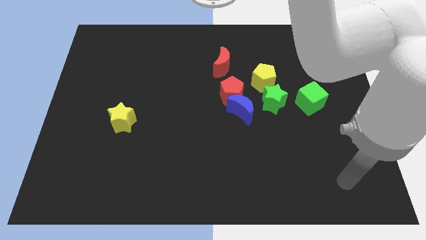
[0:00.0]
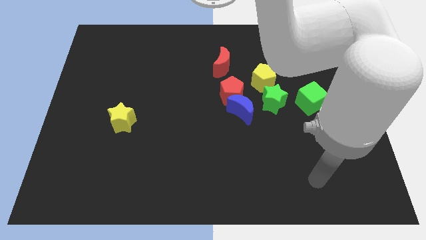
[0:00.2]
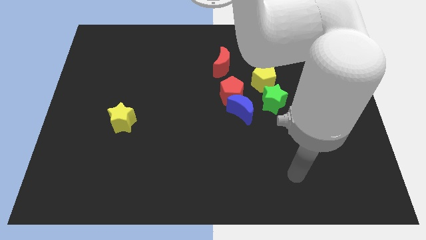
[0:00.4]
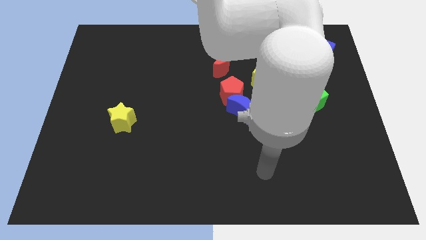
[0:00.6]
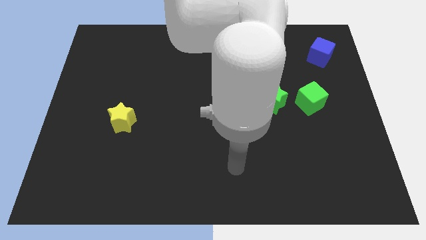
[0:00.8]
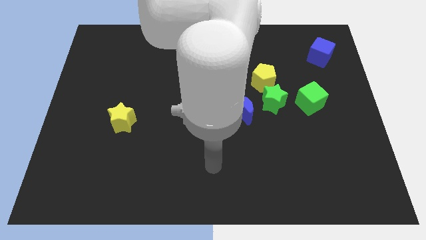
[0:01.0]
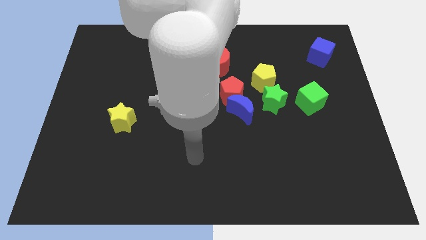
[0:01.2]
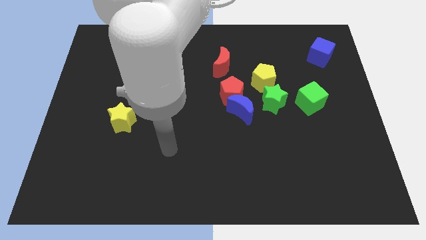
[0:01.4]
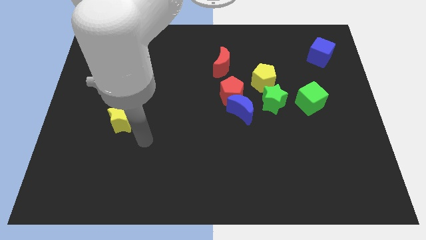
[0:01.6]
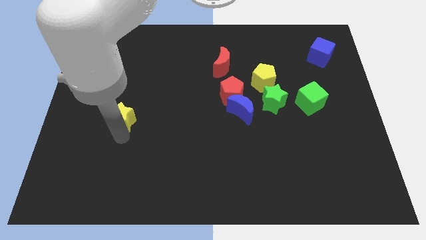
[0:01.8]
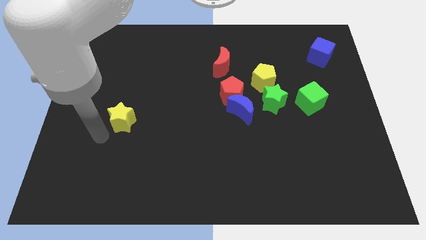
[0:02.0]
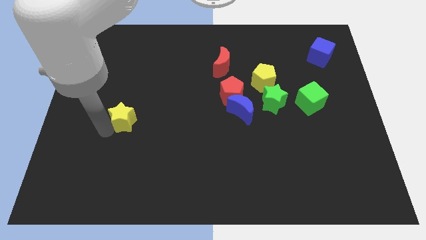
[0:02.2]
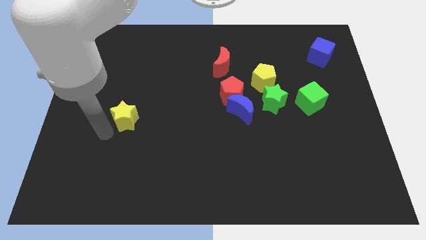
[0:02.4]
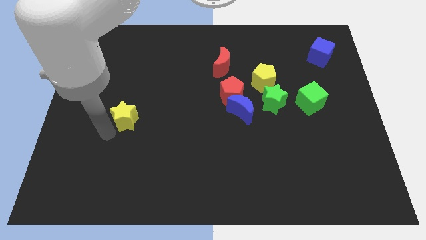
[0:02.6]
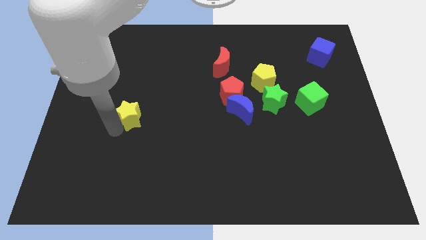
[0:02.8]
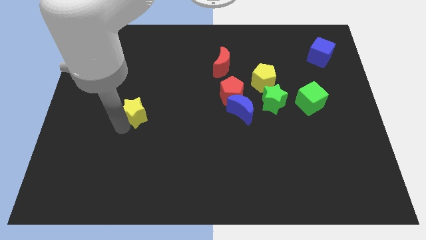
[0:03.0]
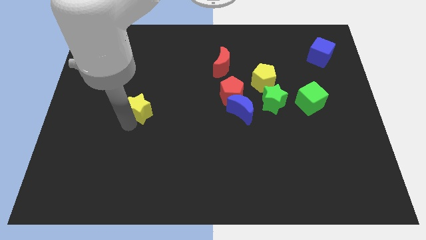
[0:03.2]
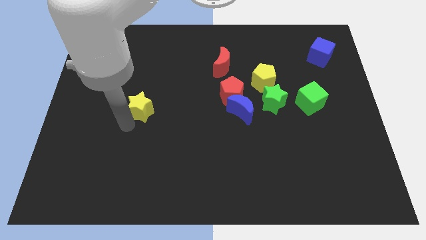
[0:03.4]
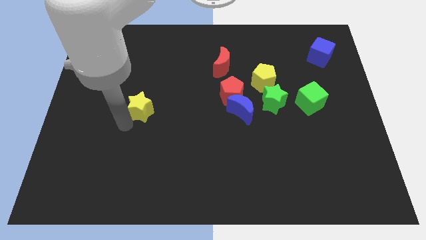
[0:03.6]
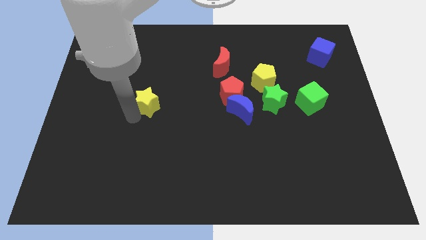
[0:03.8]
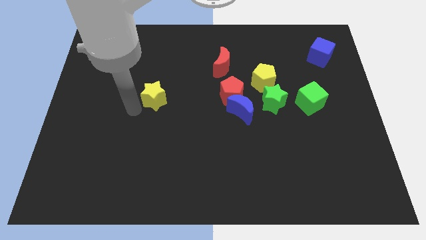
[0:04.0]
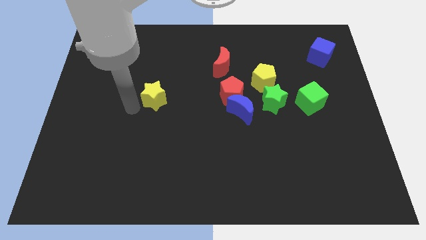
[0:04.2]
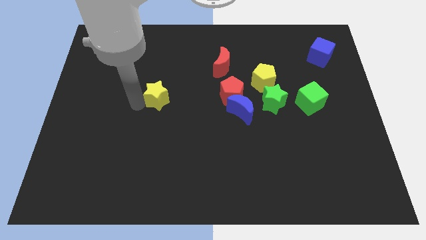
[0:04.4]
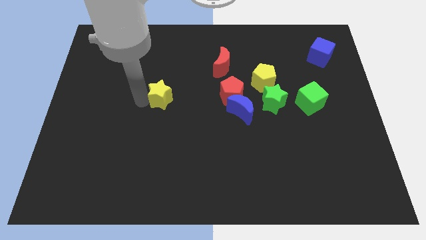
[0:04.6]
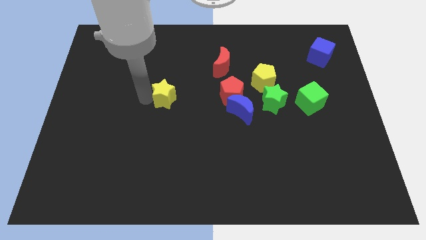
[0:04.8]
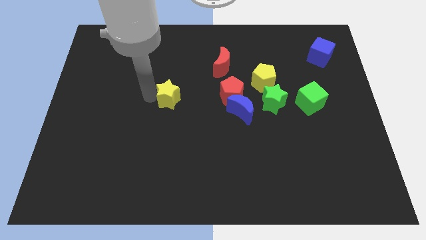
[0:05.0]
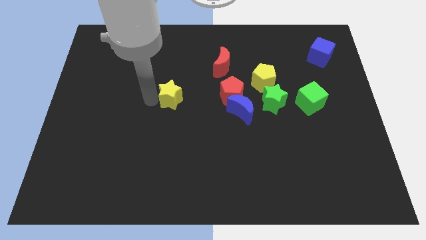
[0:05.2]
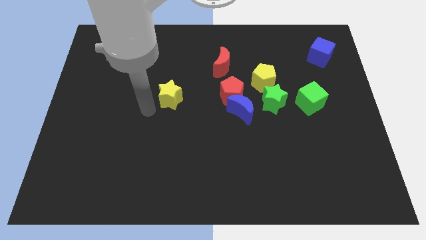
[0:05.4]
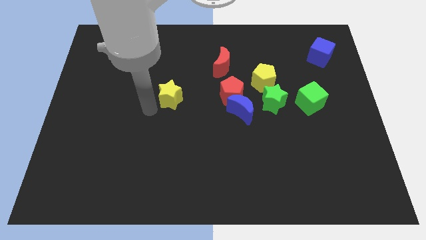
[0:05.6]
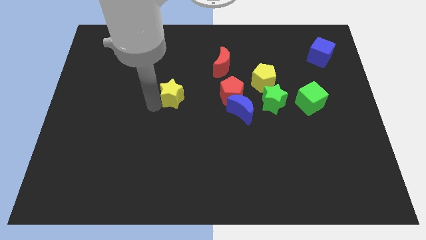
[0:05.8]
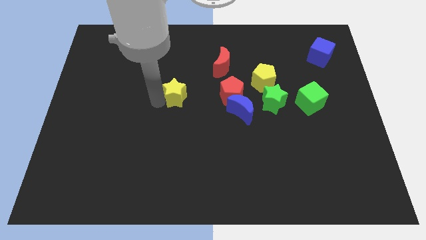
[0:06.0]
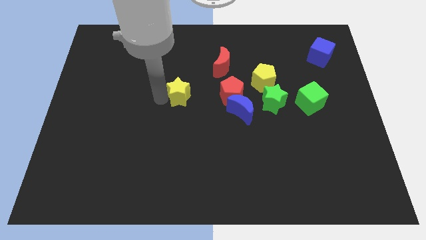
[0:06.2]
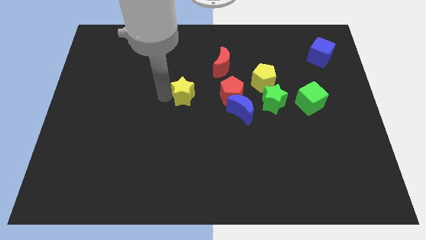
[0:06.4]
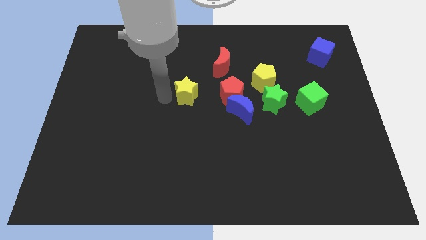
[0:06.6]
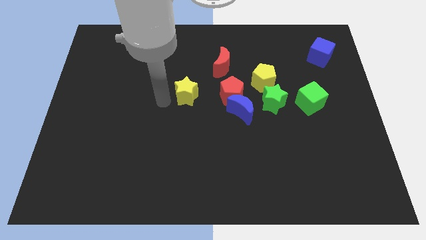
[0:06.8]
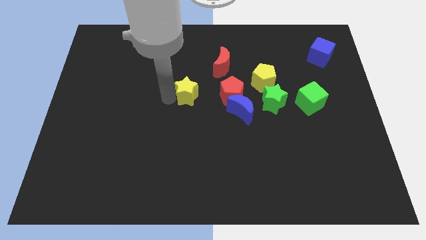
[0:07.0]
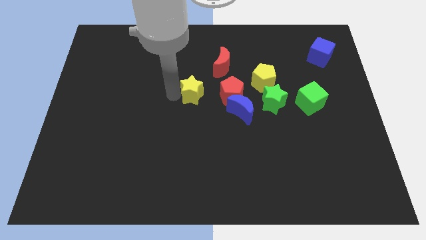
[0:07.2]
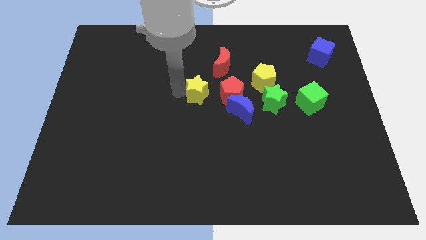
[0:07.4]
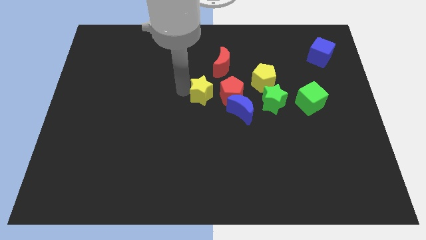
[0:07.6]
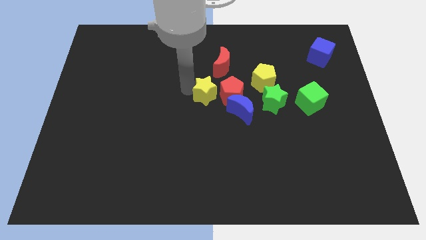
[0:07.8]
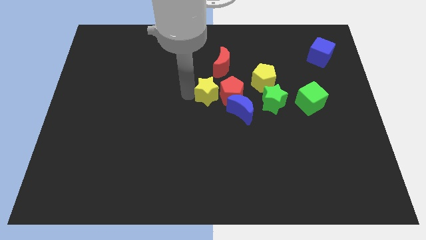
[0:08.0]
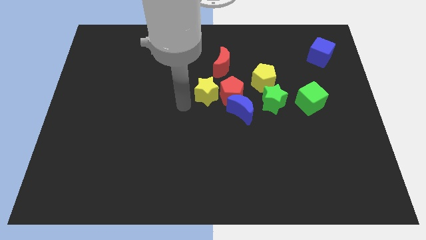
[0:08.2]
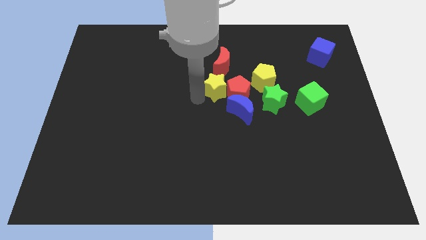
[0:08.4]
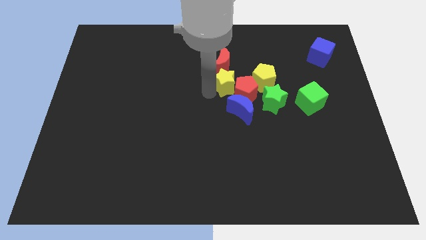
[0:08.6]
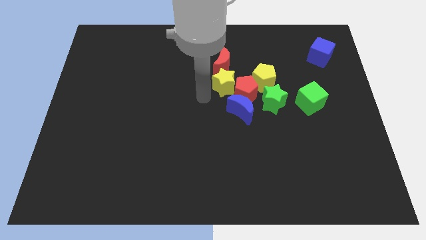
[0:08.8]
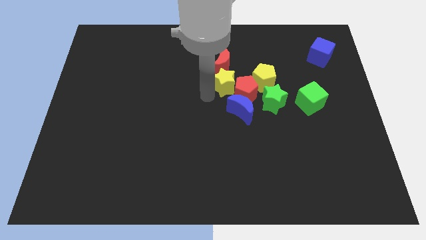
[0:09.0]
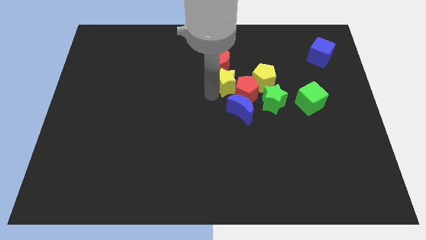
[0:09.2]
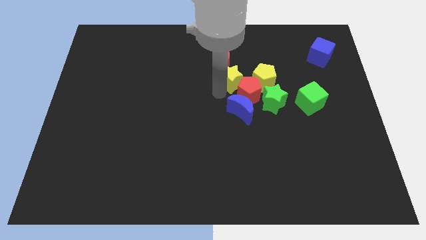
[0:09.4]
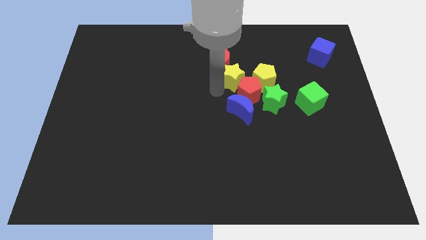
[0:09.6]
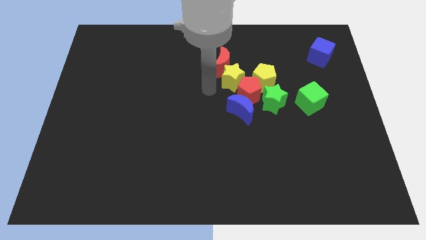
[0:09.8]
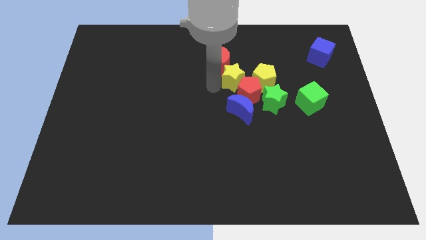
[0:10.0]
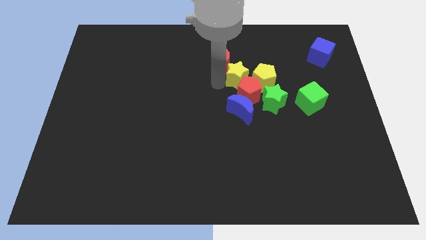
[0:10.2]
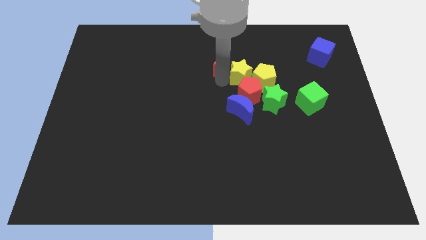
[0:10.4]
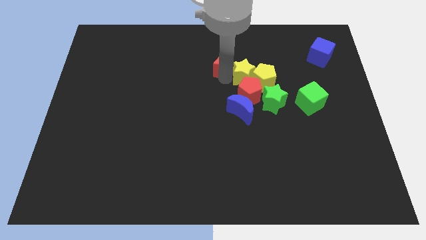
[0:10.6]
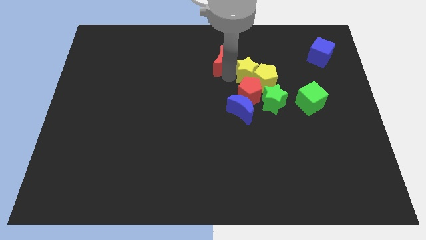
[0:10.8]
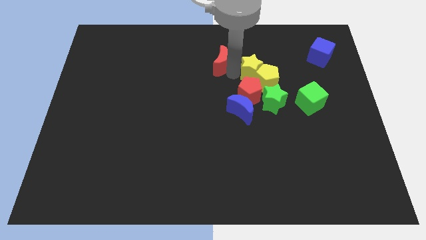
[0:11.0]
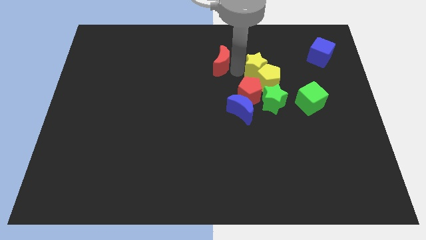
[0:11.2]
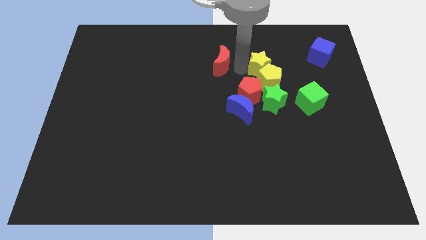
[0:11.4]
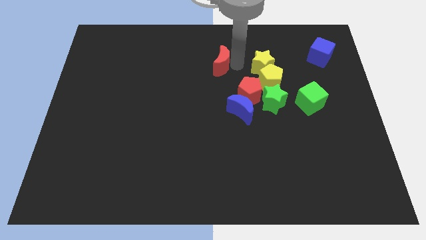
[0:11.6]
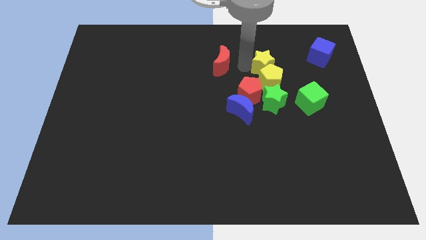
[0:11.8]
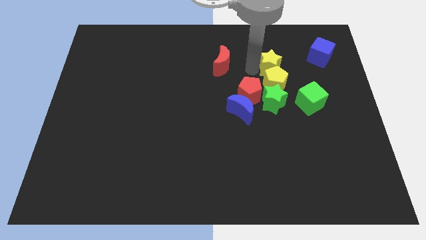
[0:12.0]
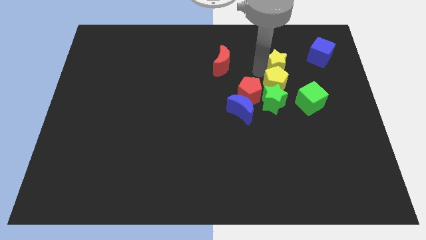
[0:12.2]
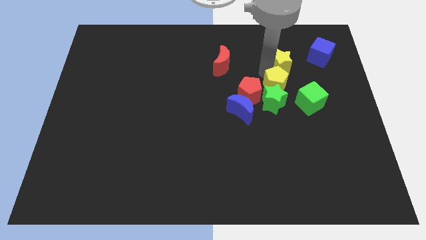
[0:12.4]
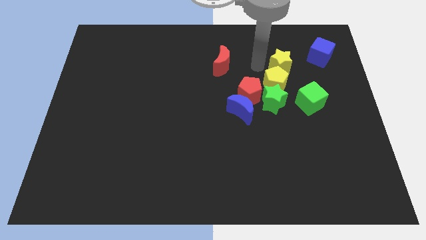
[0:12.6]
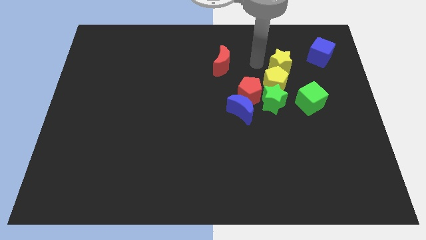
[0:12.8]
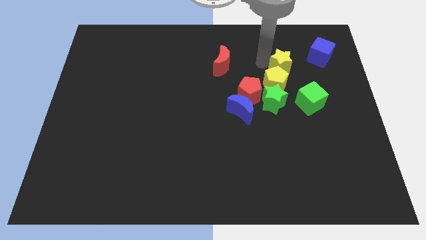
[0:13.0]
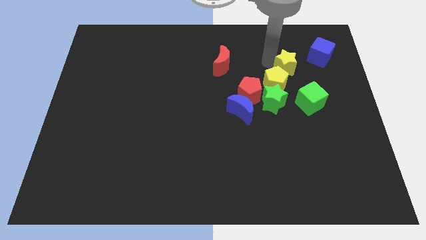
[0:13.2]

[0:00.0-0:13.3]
push the yellow star to the top of the green cube
